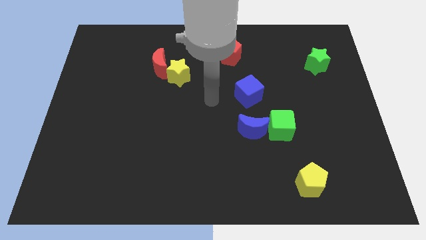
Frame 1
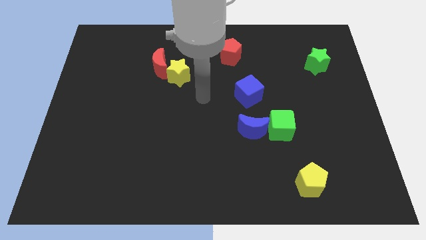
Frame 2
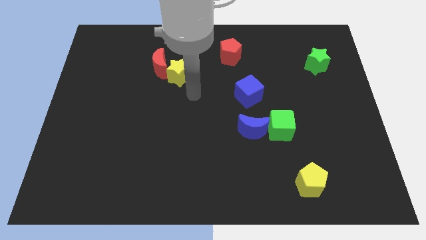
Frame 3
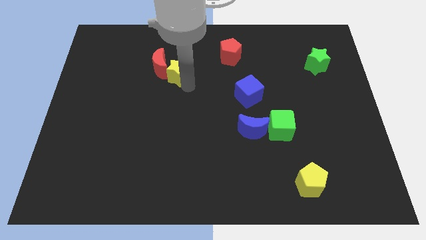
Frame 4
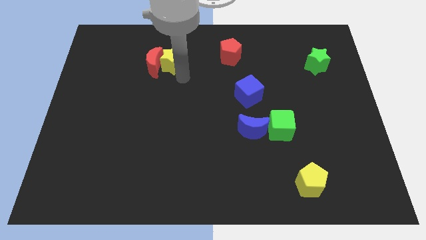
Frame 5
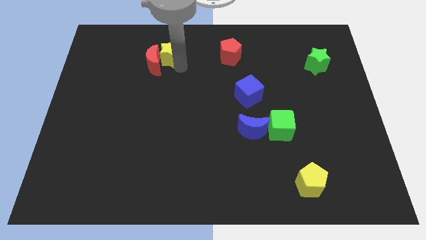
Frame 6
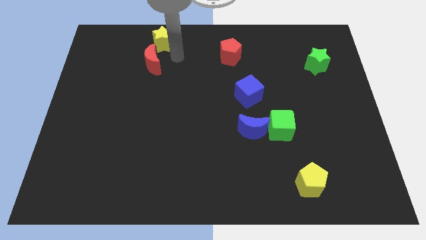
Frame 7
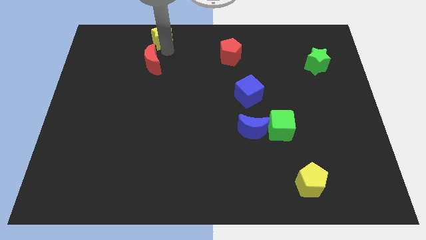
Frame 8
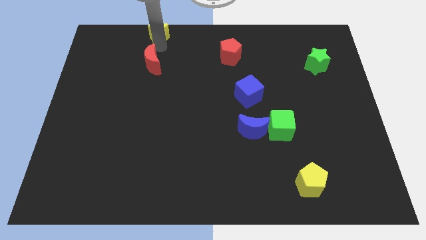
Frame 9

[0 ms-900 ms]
move the red moon away from the yellow star

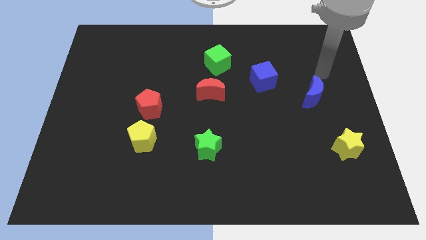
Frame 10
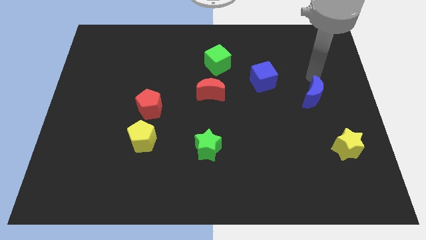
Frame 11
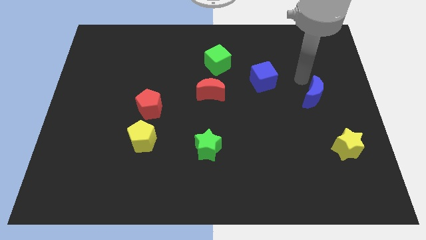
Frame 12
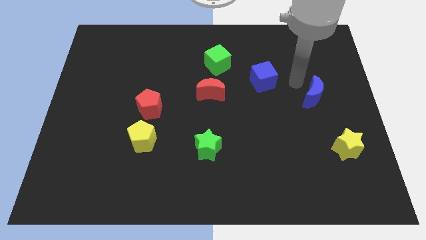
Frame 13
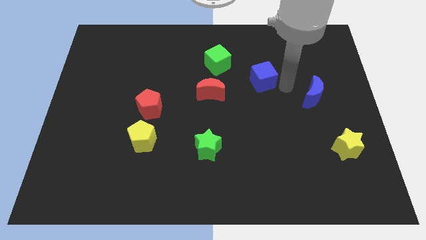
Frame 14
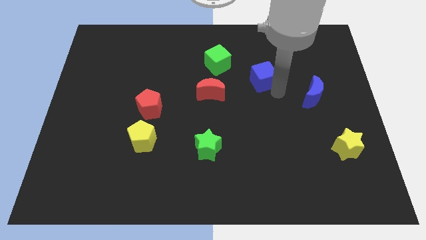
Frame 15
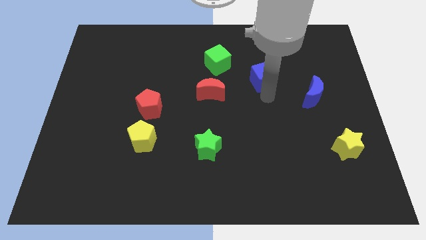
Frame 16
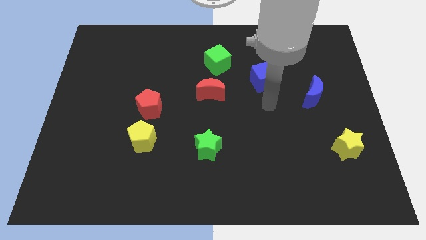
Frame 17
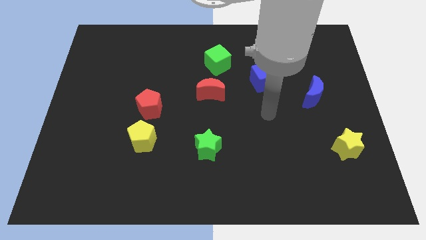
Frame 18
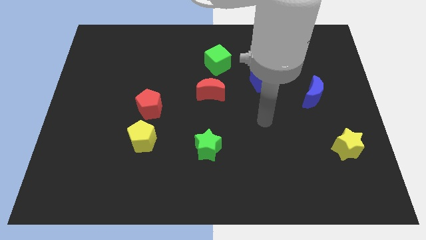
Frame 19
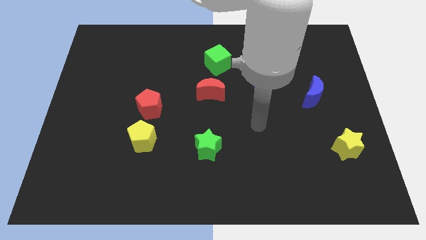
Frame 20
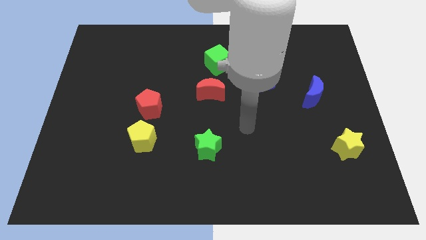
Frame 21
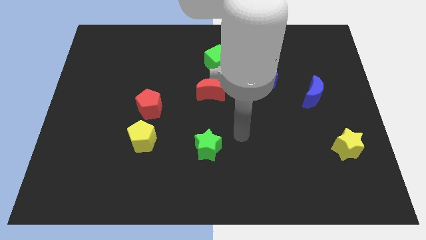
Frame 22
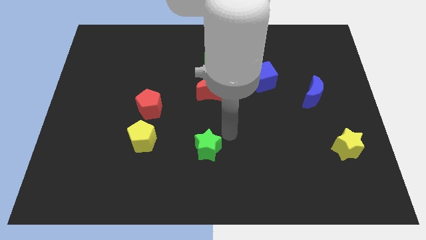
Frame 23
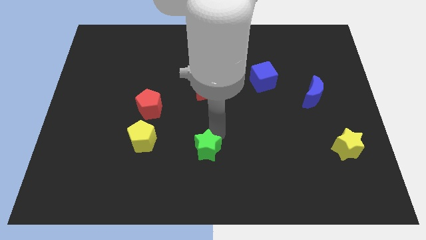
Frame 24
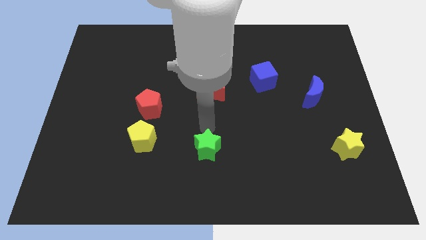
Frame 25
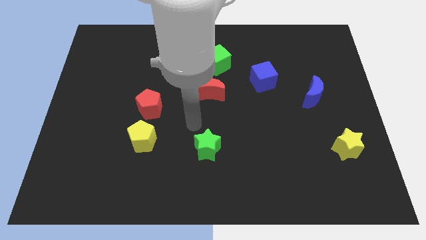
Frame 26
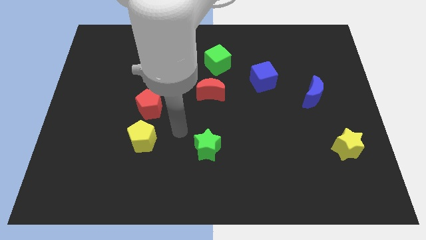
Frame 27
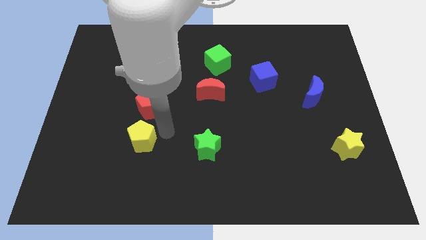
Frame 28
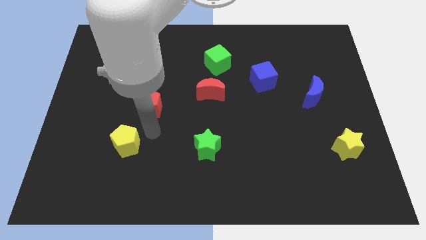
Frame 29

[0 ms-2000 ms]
move the red pentagon away from the yellow pentagon

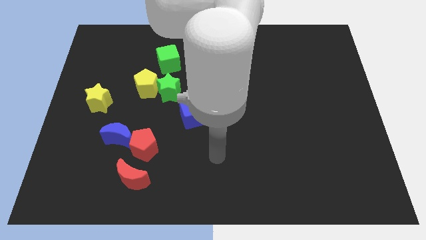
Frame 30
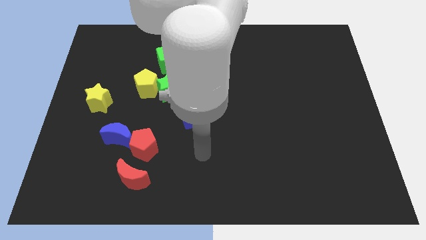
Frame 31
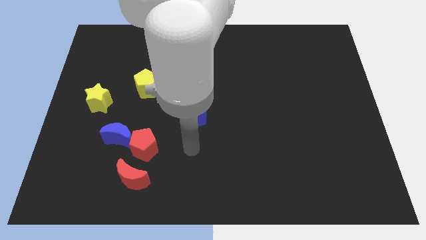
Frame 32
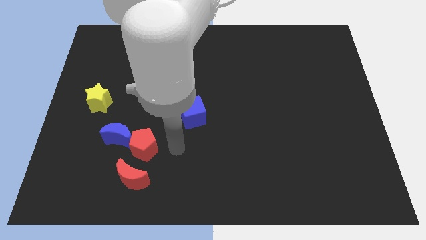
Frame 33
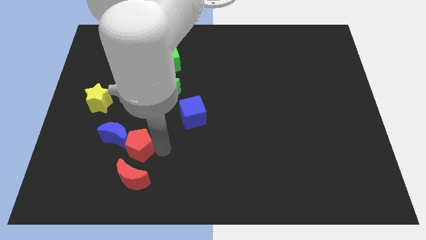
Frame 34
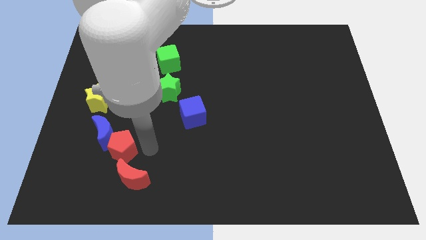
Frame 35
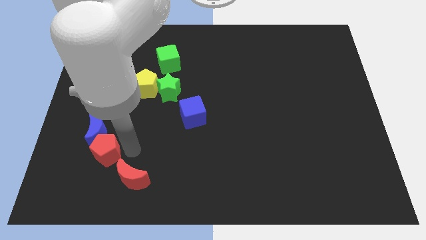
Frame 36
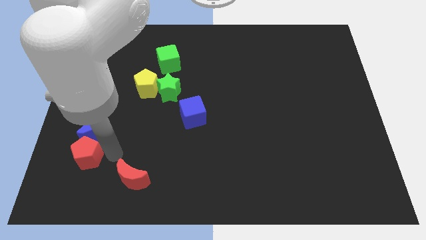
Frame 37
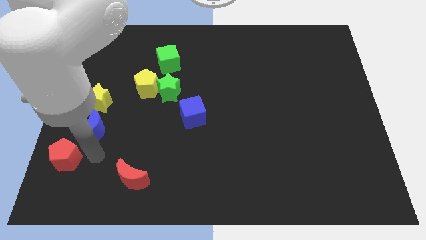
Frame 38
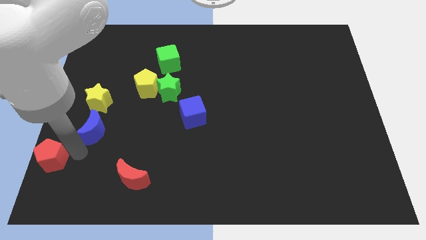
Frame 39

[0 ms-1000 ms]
separate the blue moon from the red pentagon

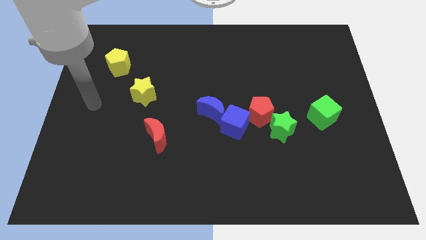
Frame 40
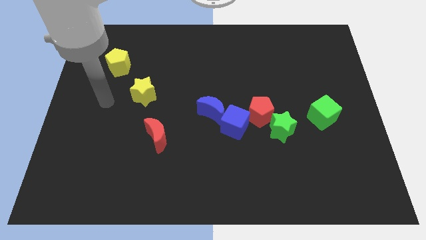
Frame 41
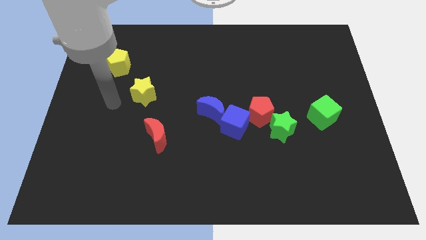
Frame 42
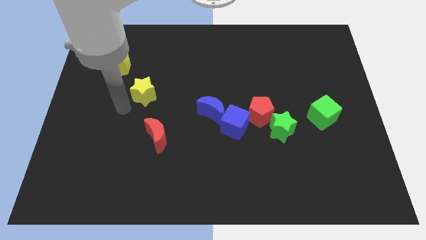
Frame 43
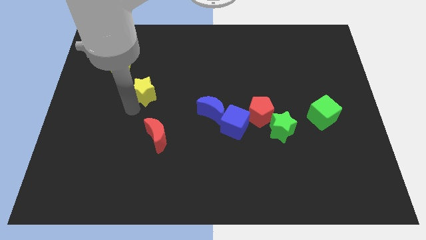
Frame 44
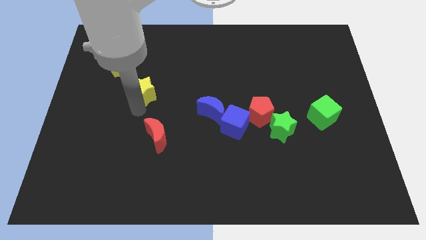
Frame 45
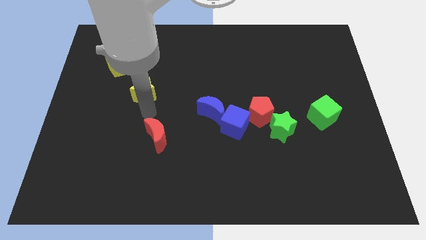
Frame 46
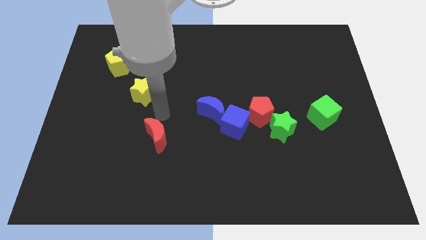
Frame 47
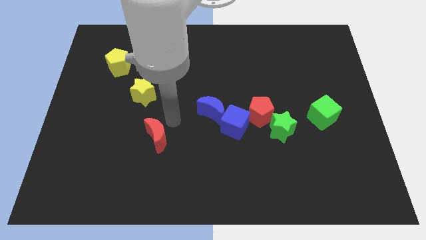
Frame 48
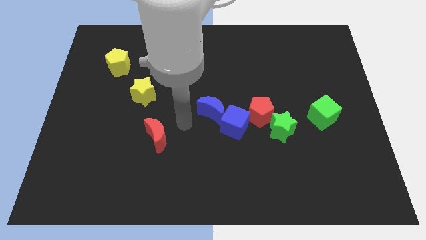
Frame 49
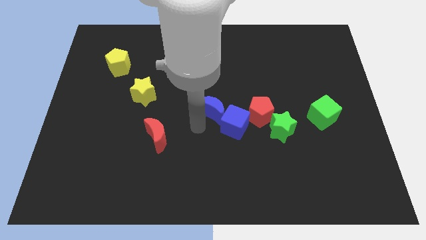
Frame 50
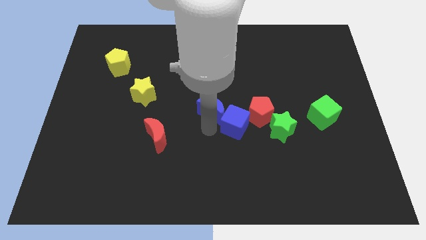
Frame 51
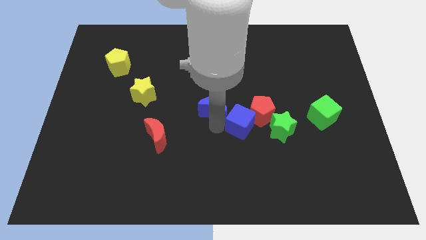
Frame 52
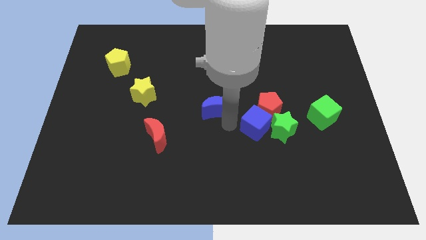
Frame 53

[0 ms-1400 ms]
separate the blue moon from the blue cube

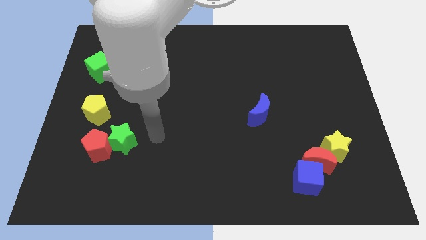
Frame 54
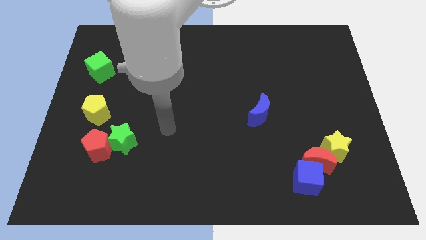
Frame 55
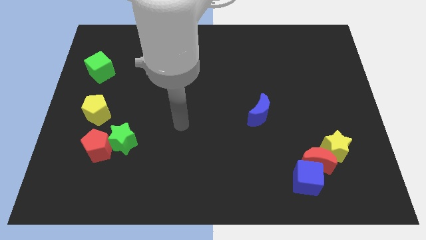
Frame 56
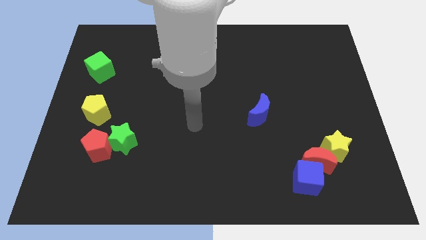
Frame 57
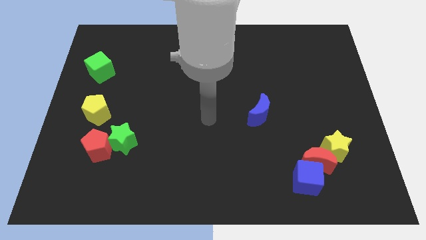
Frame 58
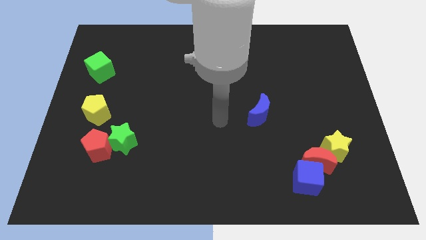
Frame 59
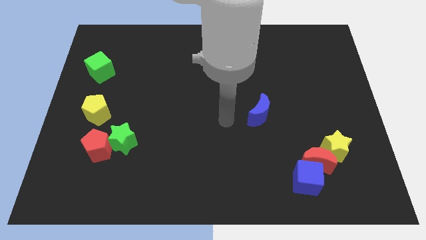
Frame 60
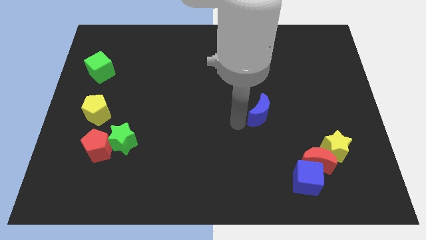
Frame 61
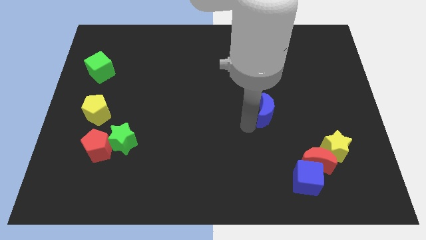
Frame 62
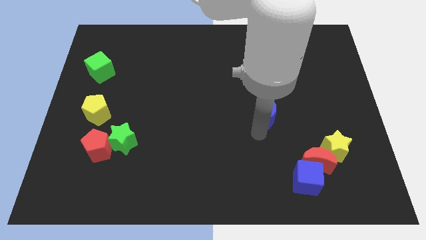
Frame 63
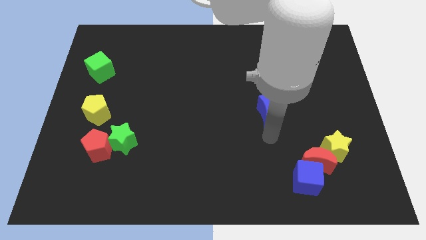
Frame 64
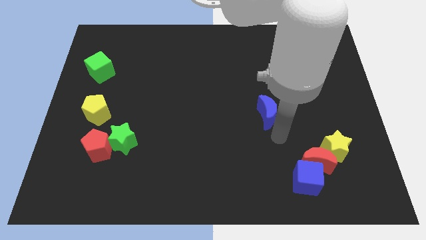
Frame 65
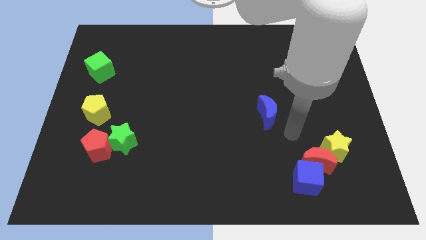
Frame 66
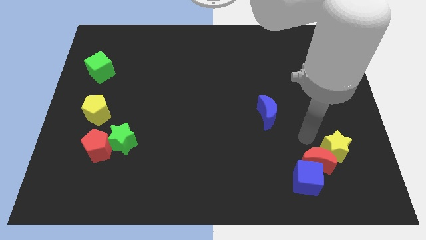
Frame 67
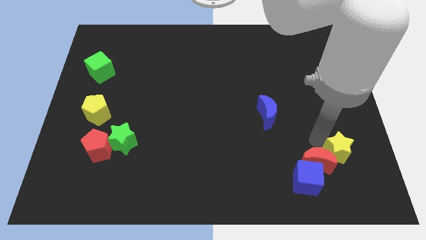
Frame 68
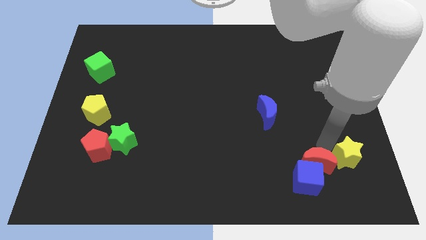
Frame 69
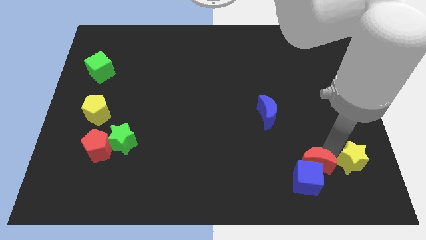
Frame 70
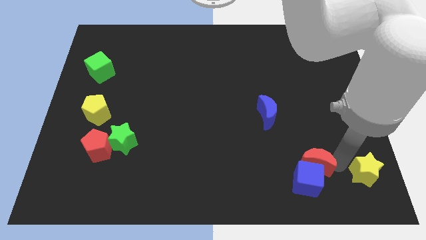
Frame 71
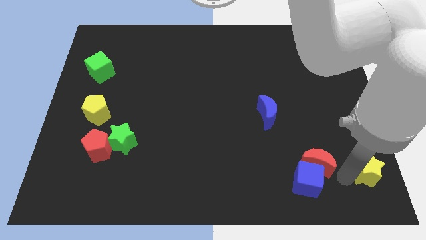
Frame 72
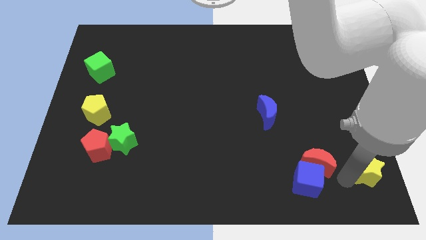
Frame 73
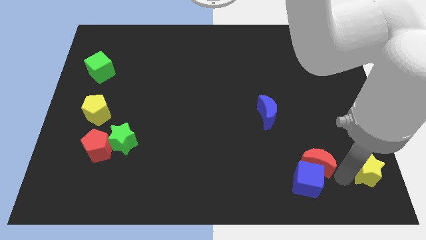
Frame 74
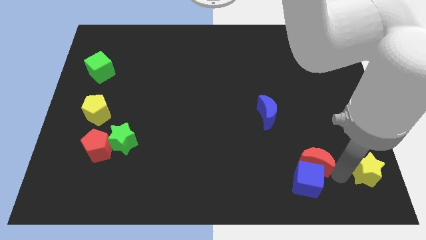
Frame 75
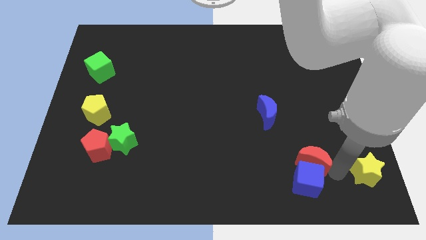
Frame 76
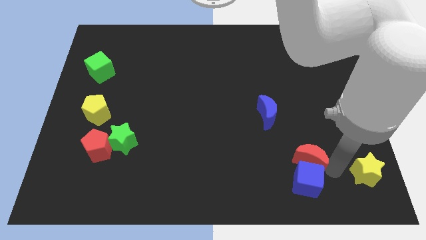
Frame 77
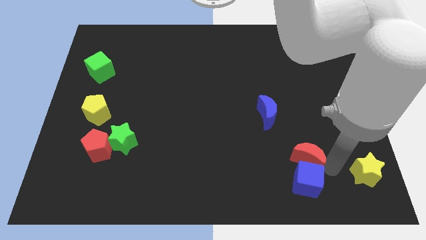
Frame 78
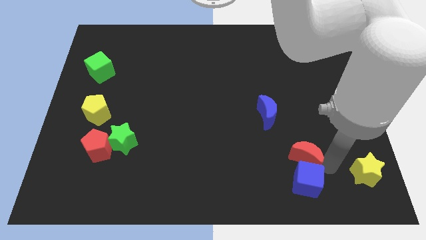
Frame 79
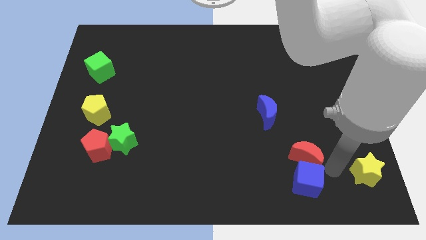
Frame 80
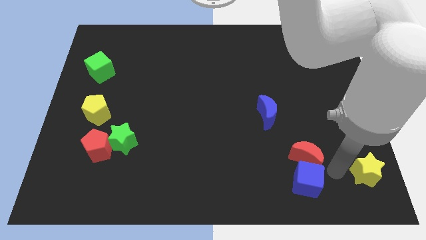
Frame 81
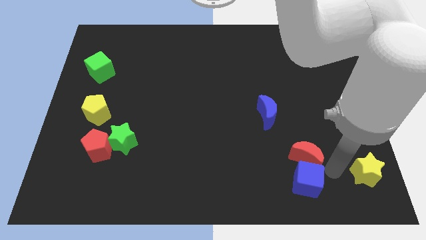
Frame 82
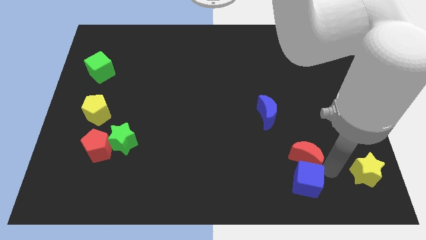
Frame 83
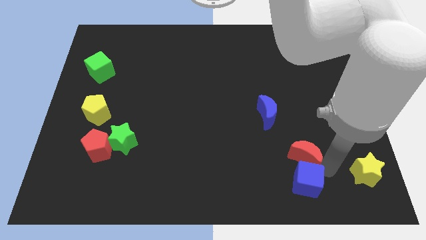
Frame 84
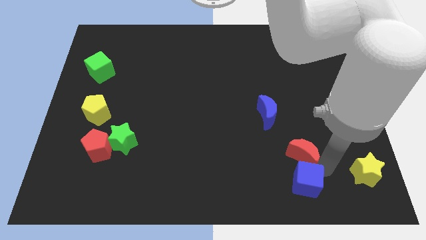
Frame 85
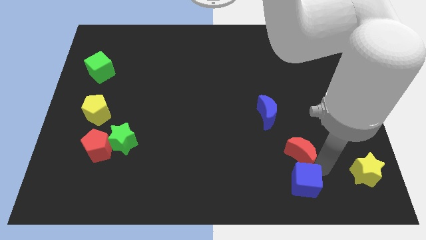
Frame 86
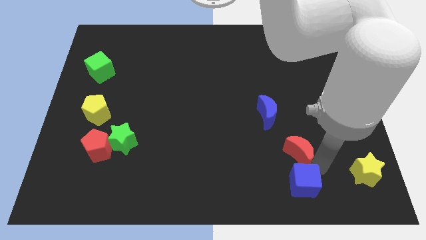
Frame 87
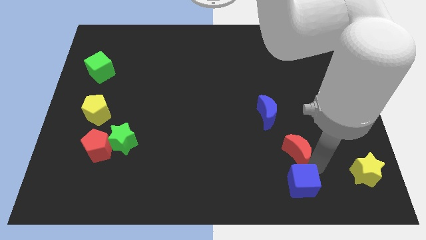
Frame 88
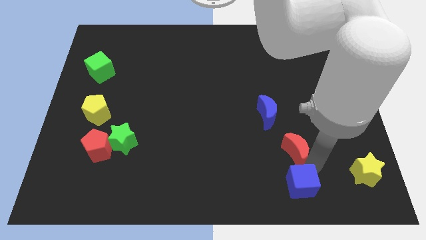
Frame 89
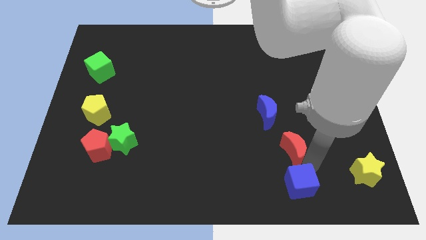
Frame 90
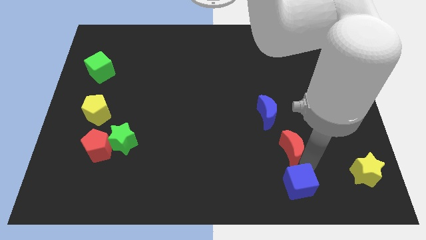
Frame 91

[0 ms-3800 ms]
pull the red moon apart from the blue cube and yellow star

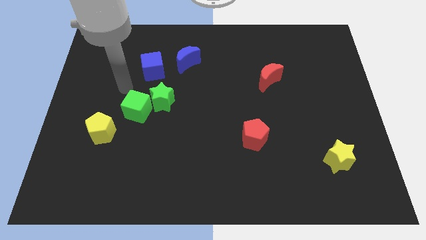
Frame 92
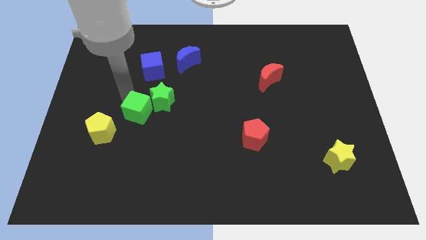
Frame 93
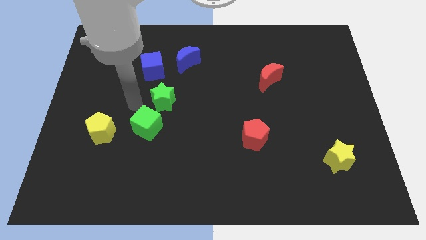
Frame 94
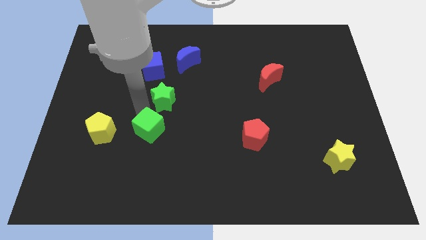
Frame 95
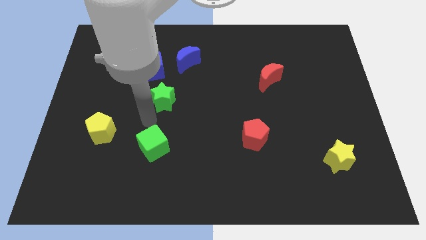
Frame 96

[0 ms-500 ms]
pull the green star apart from the green cube
